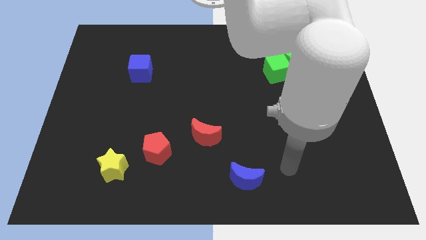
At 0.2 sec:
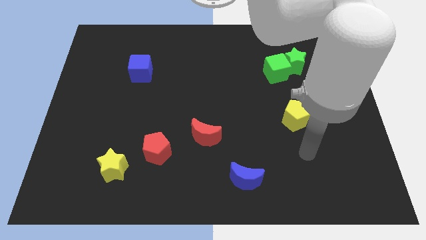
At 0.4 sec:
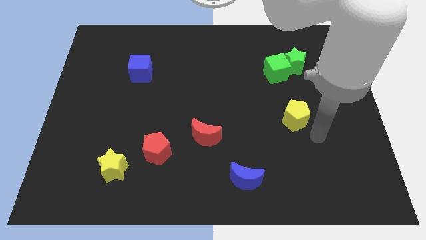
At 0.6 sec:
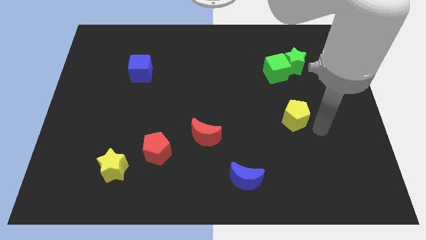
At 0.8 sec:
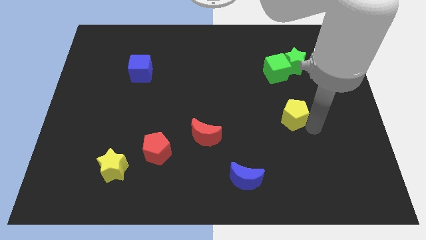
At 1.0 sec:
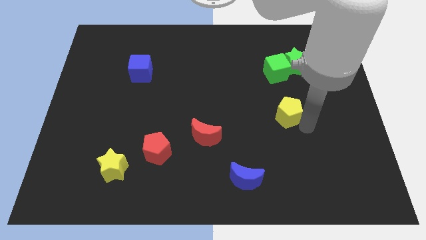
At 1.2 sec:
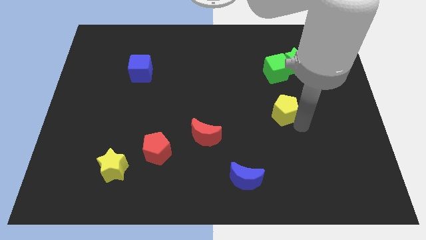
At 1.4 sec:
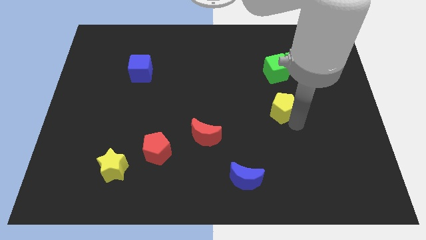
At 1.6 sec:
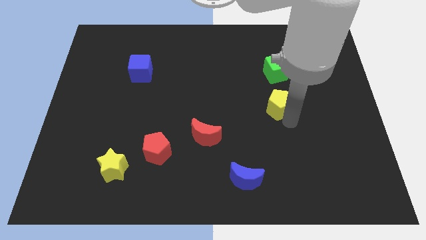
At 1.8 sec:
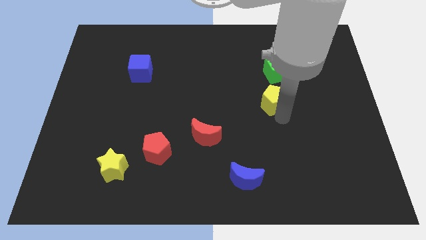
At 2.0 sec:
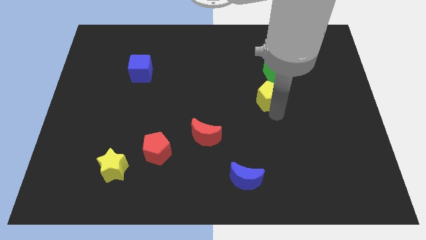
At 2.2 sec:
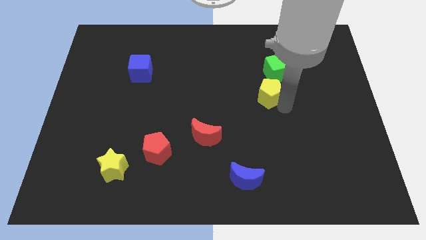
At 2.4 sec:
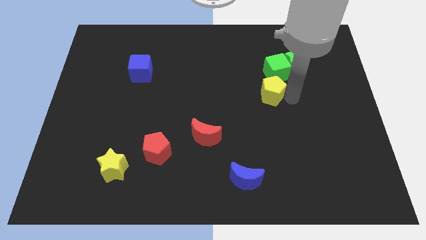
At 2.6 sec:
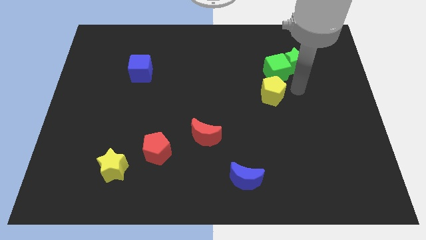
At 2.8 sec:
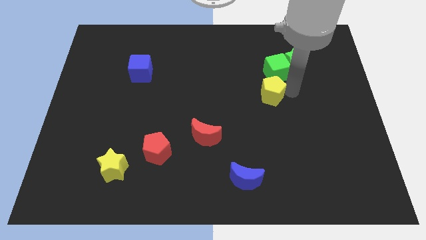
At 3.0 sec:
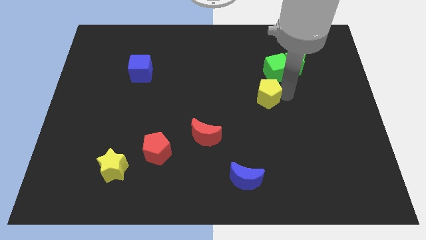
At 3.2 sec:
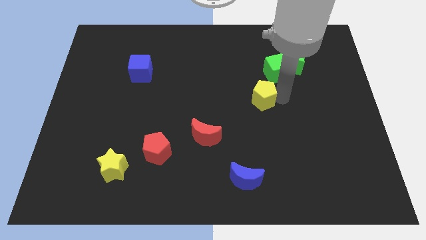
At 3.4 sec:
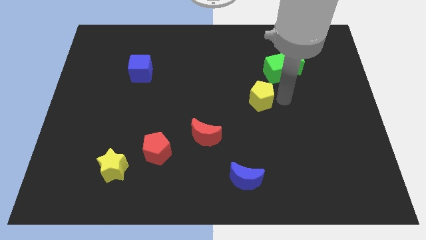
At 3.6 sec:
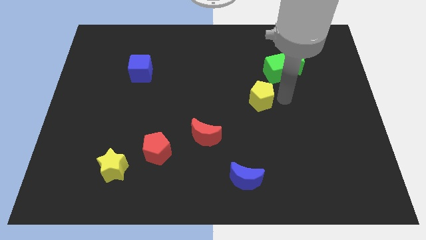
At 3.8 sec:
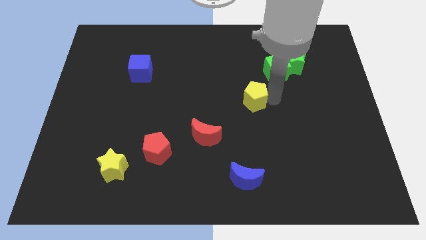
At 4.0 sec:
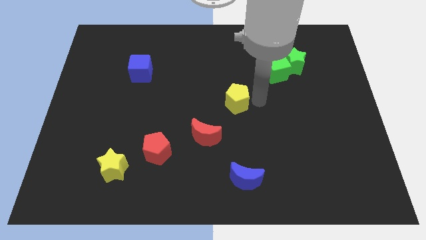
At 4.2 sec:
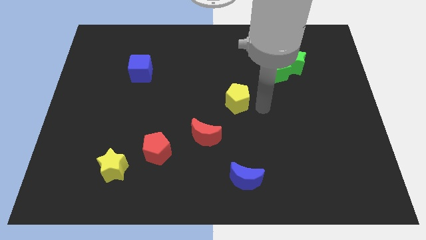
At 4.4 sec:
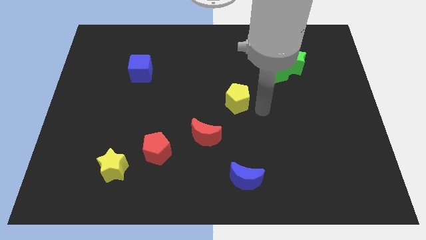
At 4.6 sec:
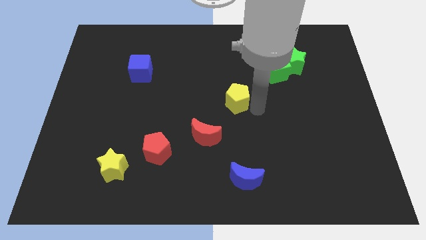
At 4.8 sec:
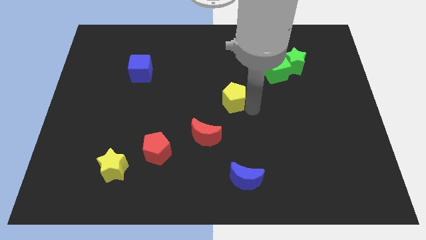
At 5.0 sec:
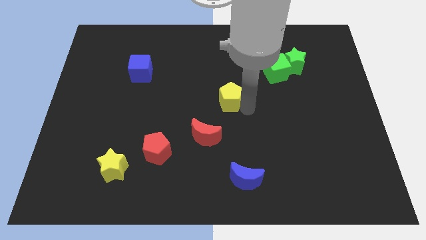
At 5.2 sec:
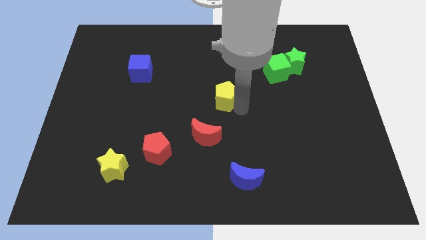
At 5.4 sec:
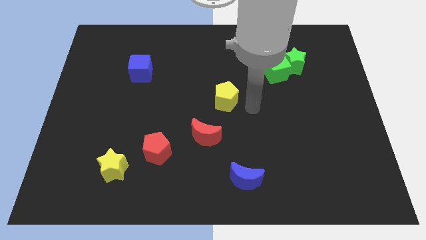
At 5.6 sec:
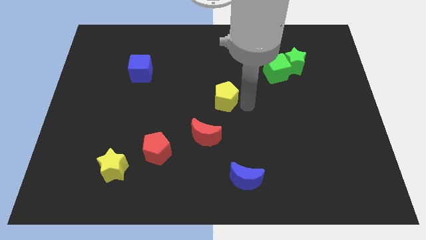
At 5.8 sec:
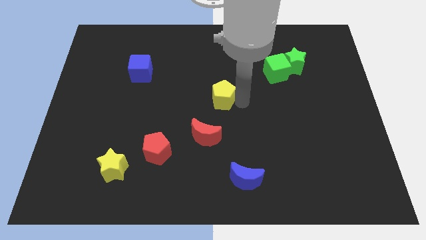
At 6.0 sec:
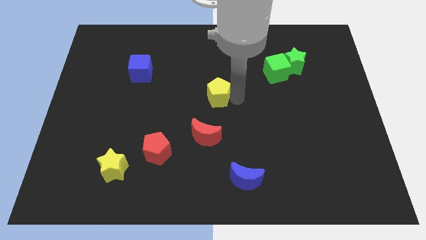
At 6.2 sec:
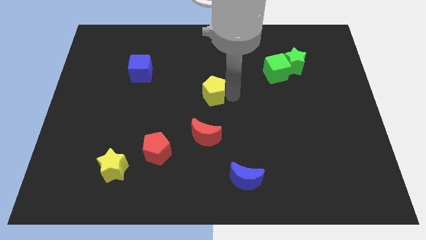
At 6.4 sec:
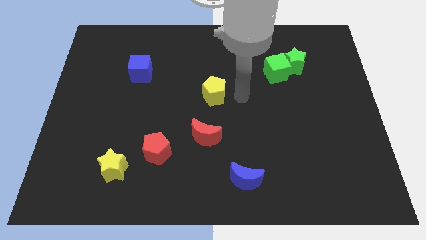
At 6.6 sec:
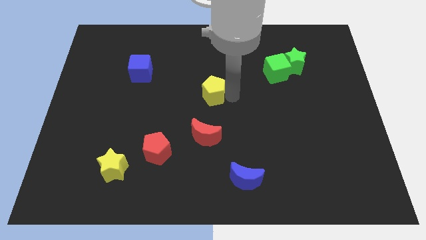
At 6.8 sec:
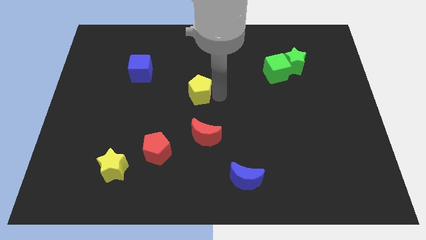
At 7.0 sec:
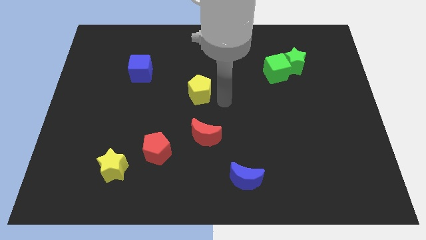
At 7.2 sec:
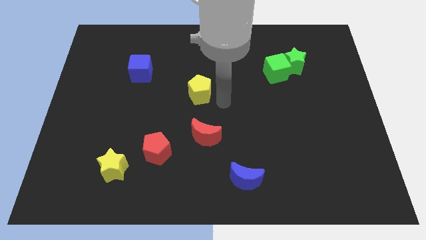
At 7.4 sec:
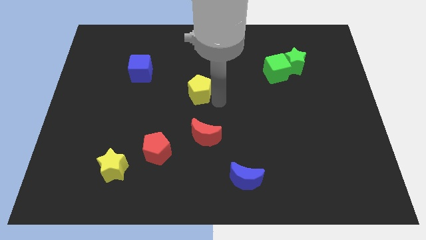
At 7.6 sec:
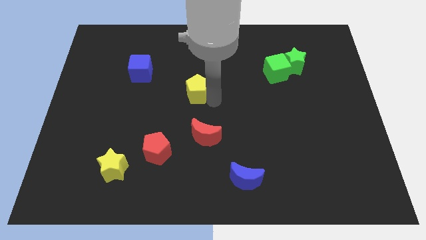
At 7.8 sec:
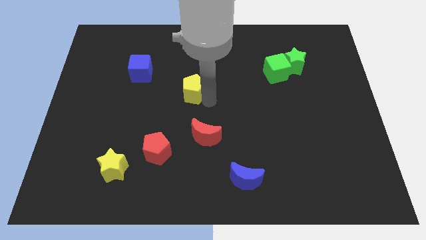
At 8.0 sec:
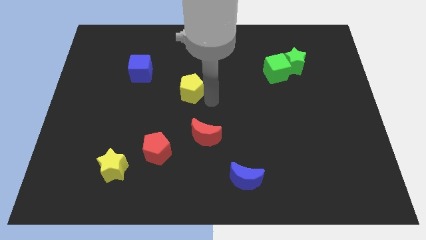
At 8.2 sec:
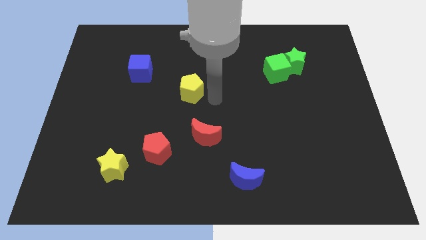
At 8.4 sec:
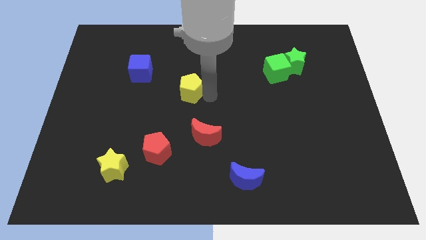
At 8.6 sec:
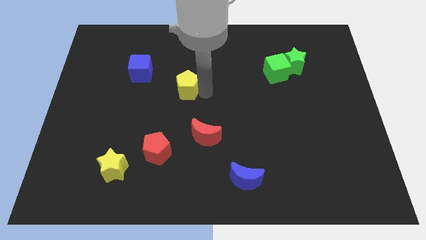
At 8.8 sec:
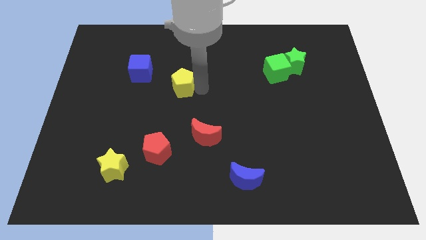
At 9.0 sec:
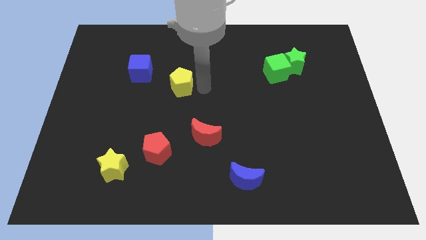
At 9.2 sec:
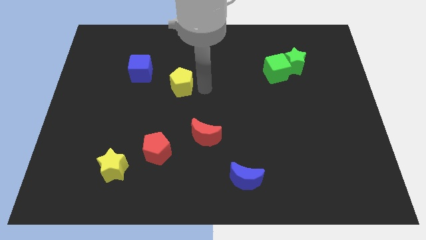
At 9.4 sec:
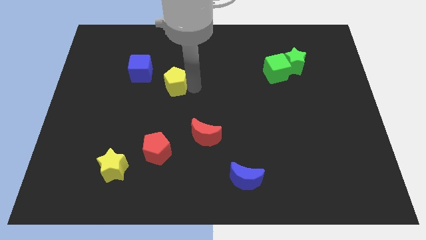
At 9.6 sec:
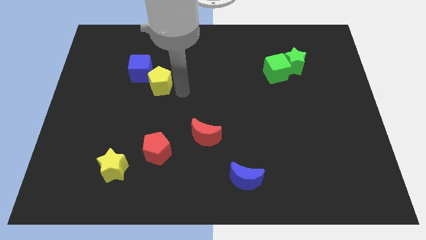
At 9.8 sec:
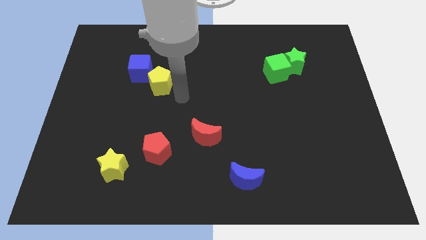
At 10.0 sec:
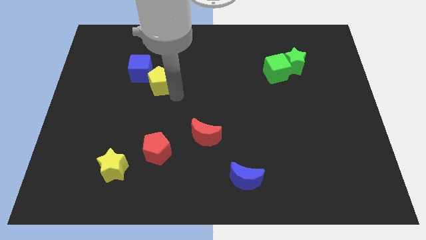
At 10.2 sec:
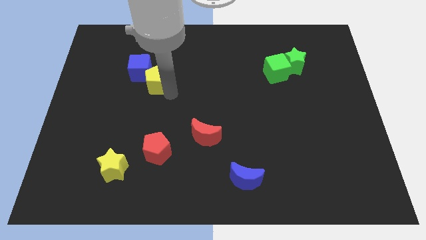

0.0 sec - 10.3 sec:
put the yellow pentagon towards the blue cube
